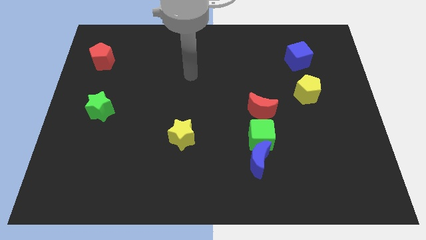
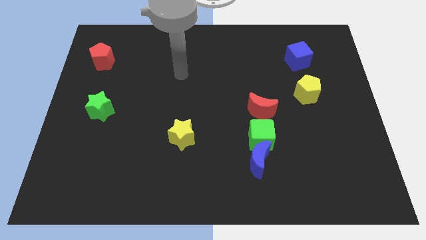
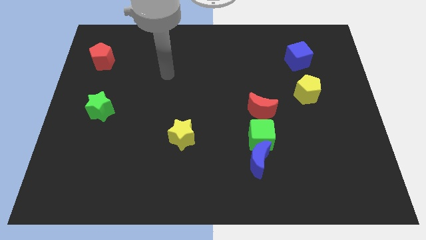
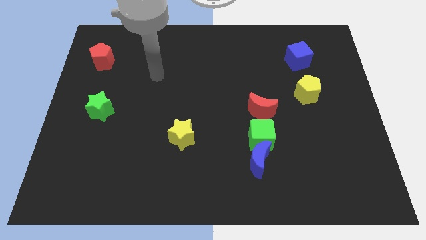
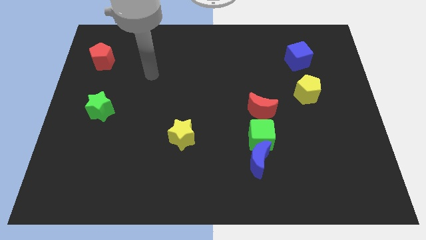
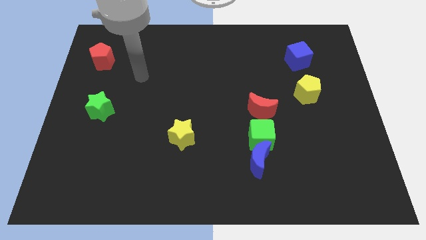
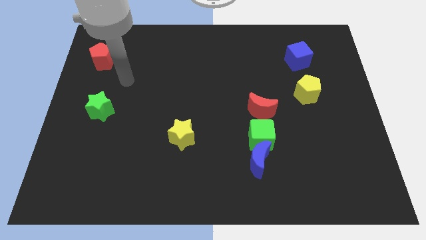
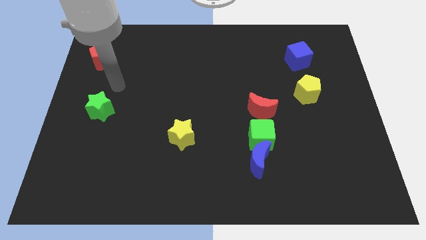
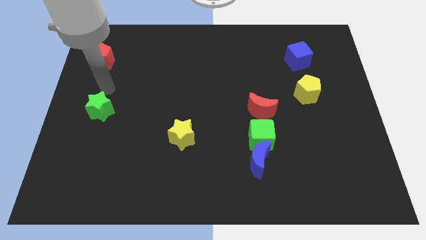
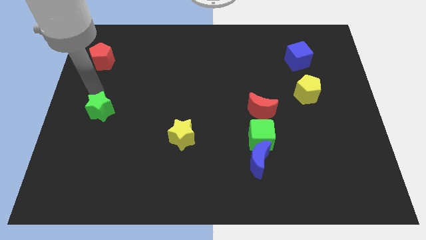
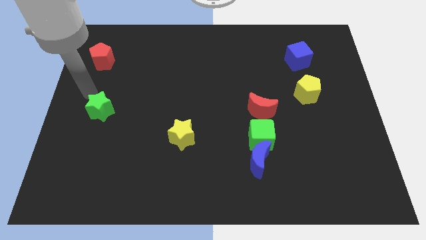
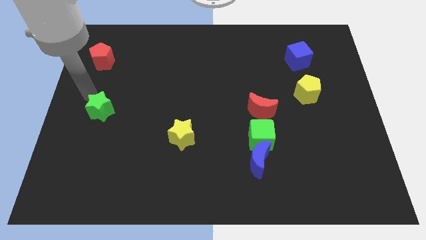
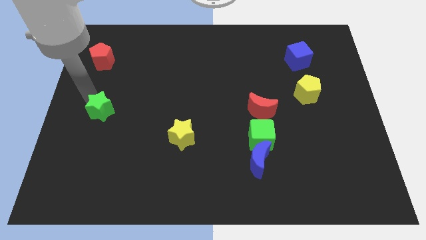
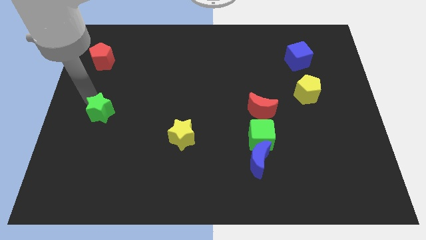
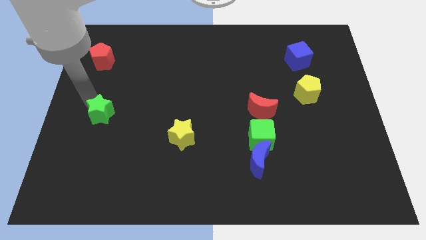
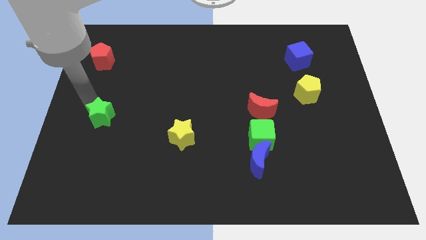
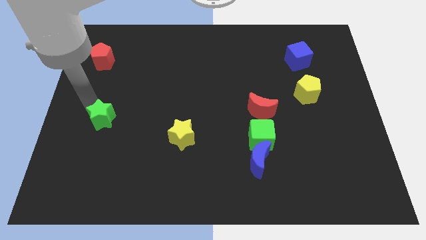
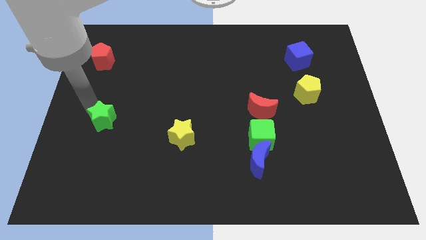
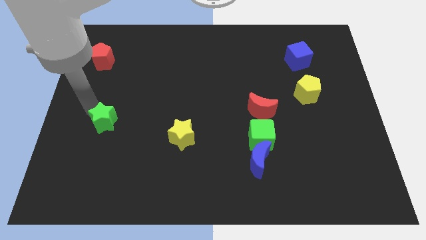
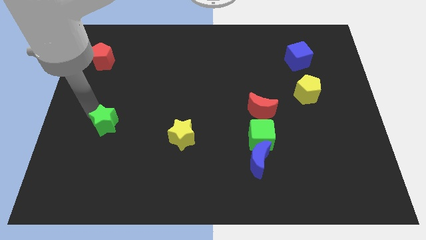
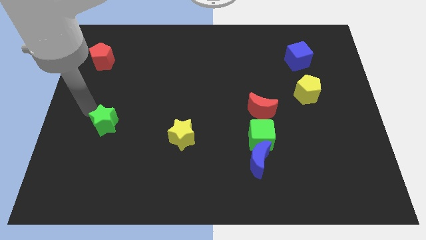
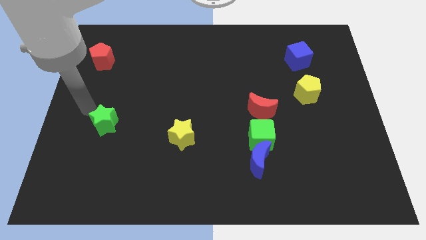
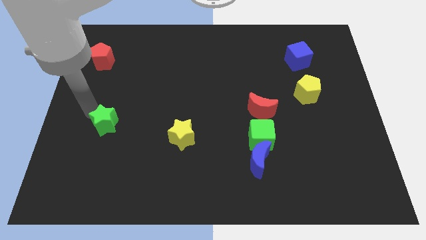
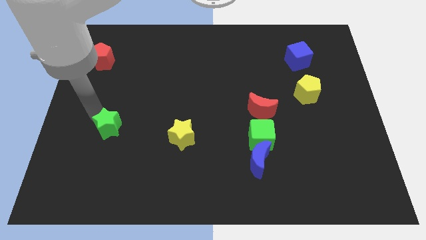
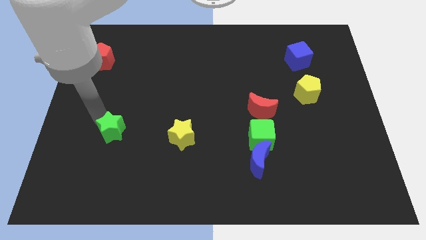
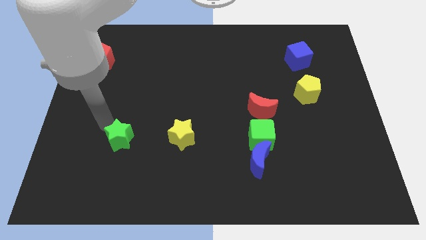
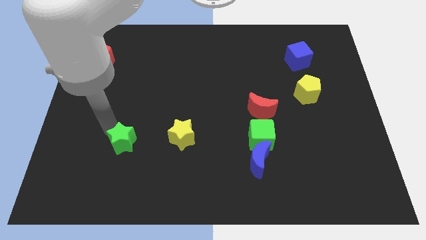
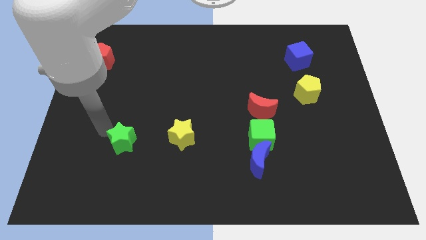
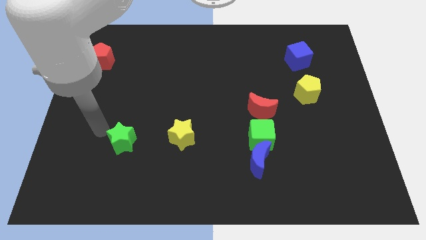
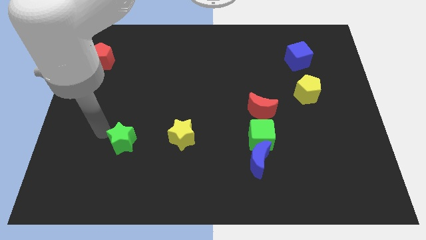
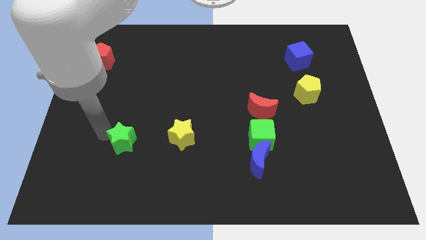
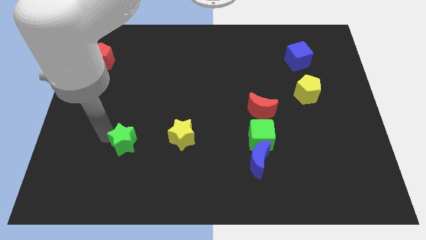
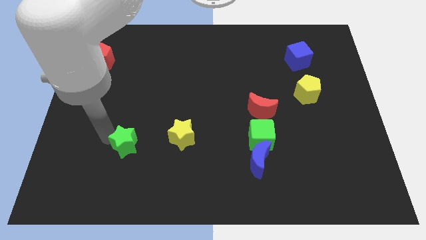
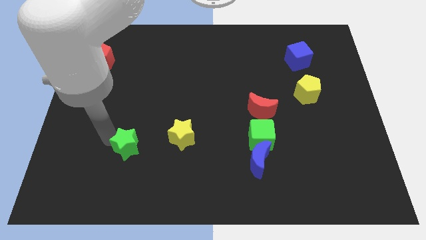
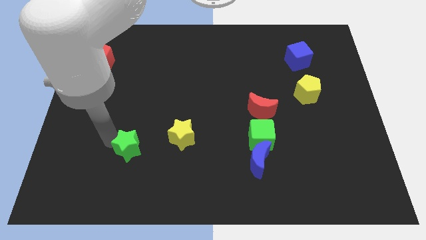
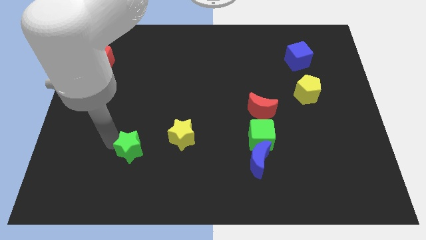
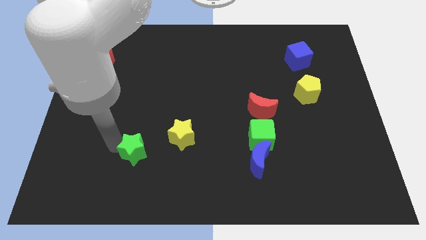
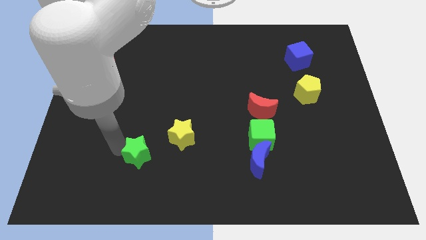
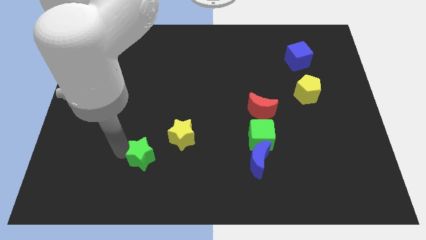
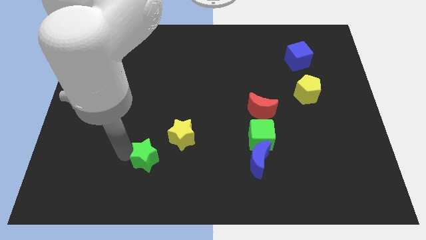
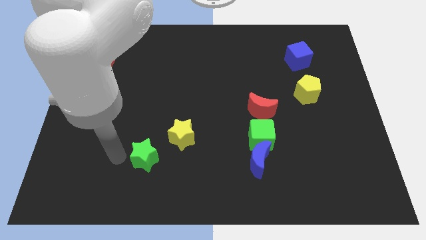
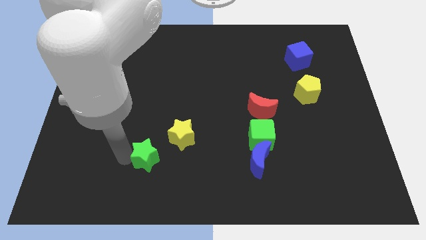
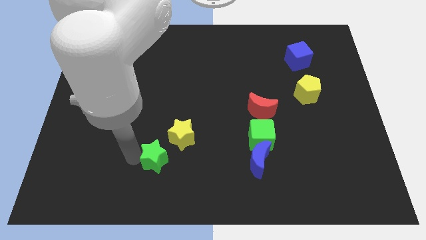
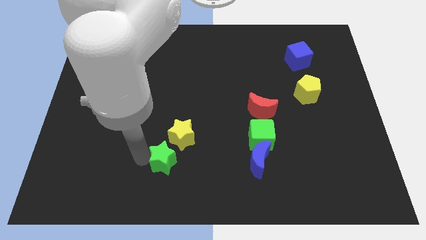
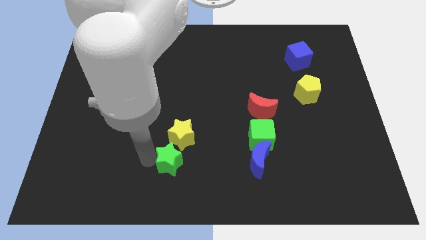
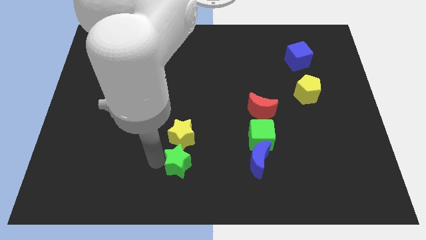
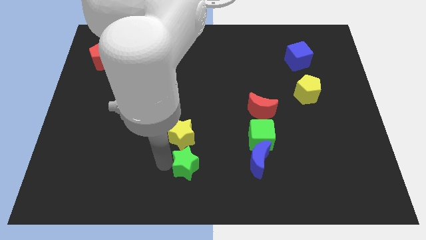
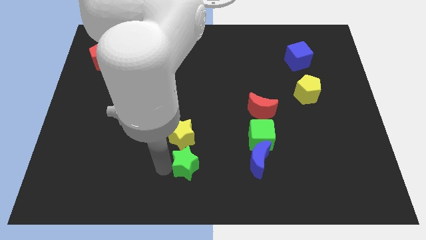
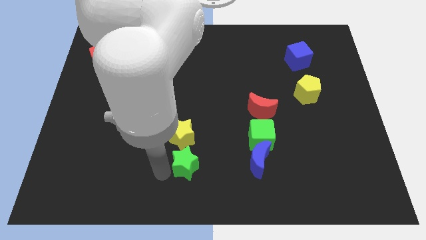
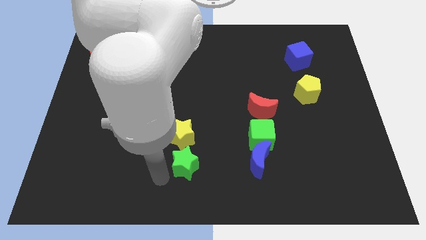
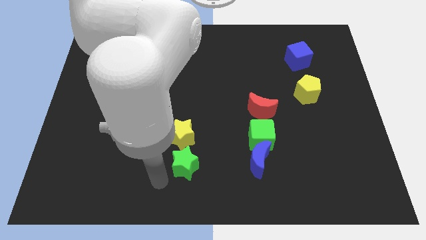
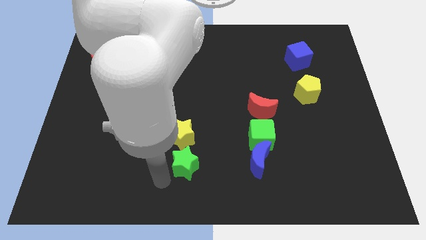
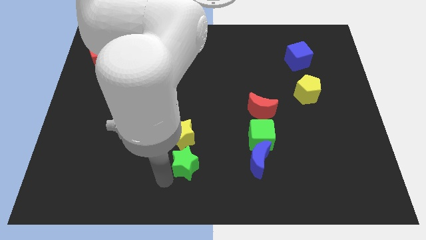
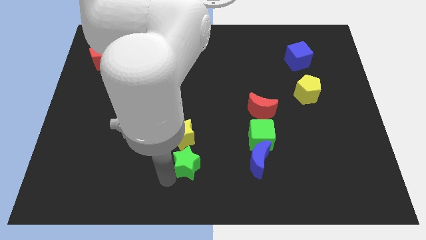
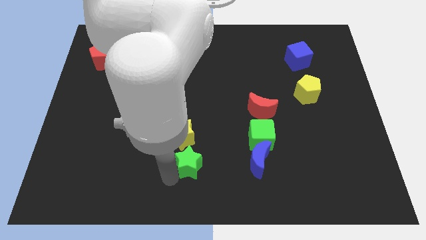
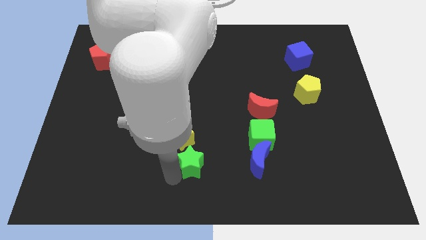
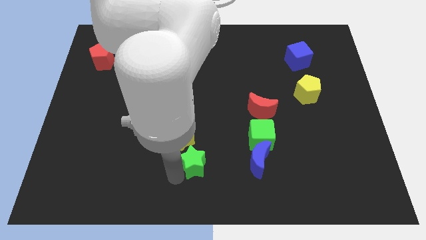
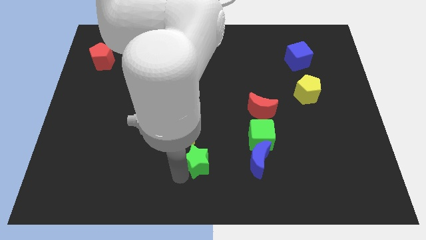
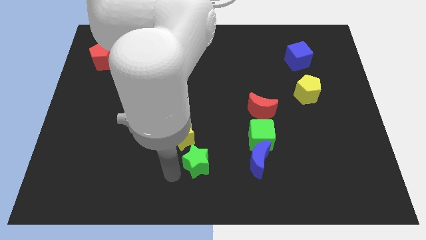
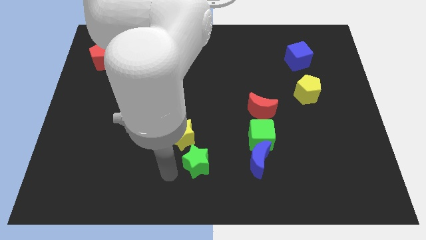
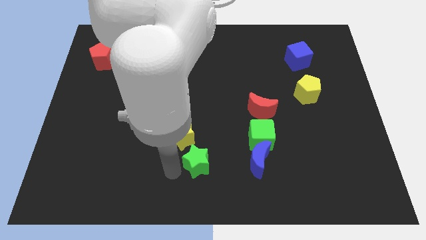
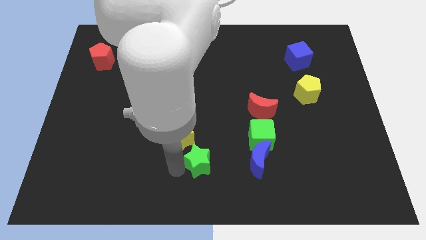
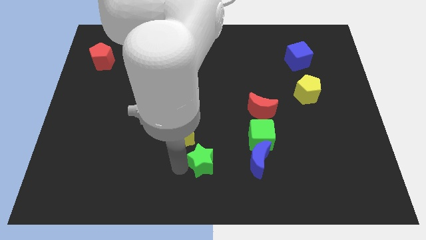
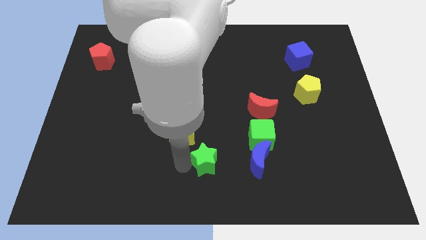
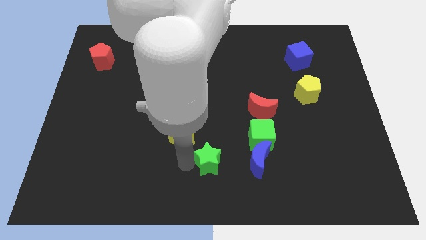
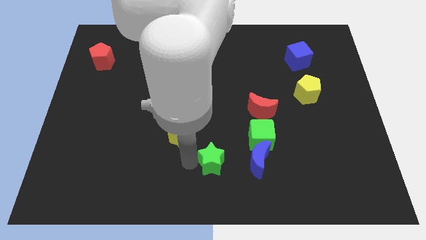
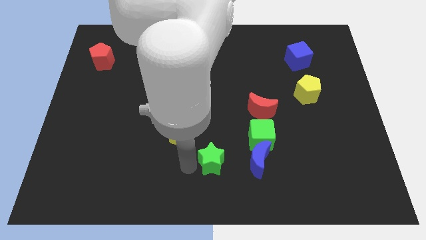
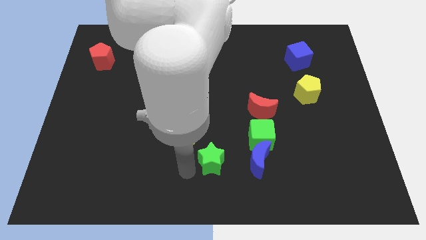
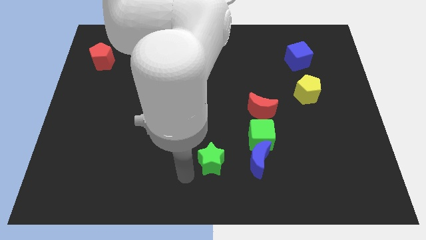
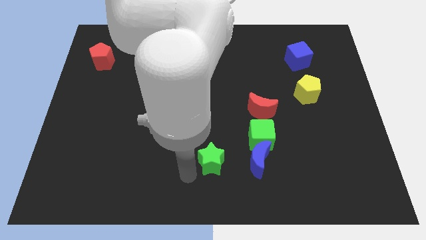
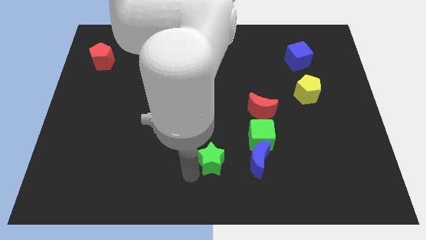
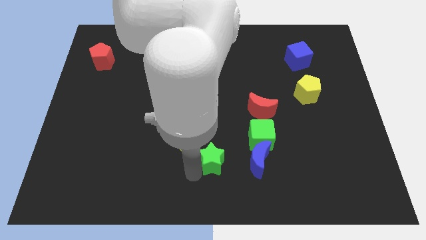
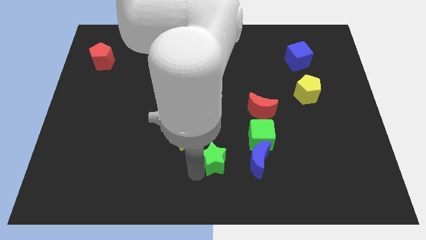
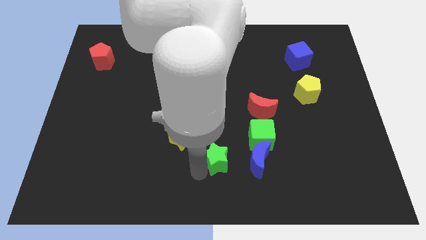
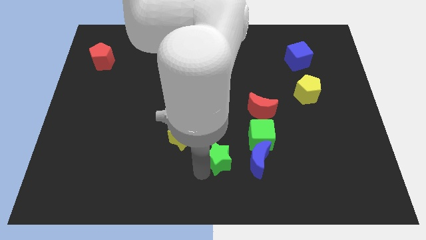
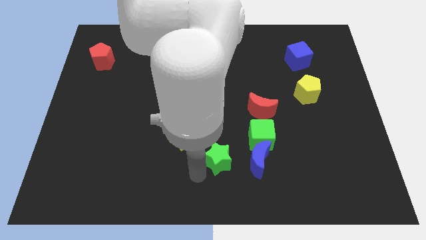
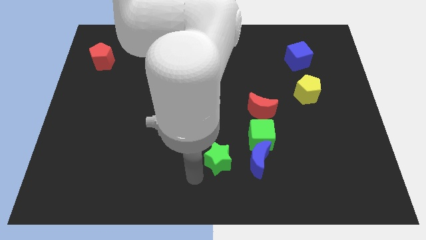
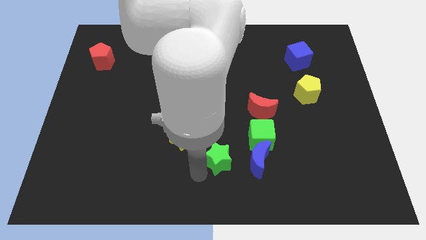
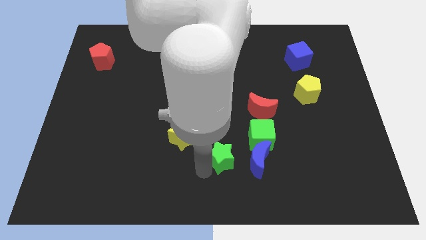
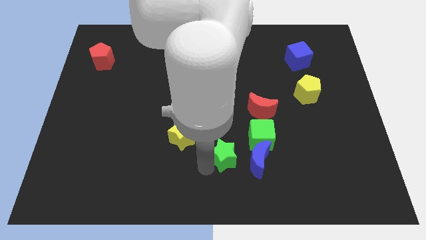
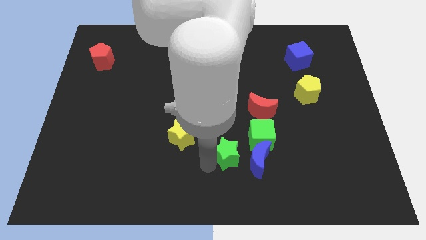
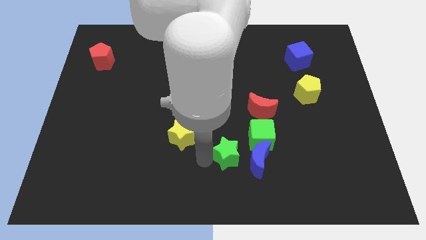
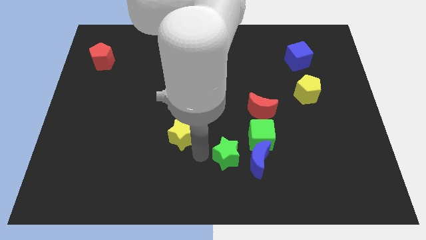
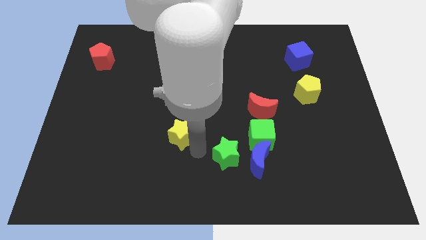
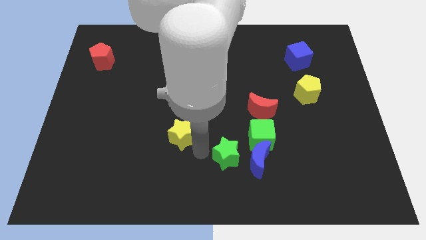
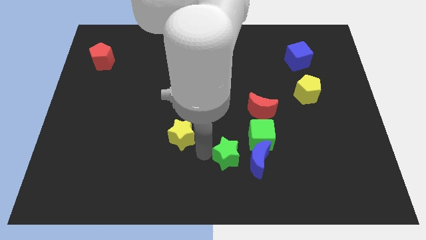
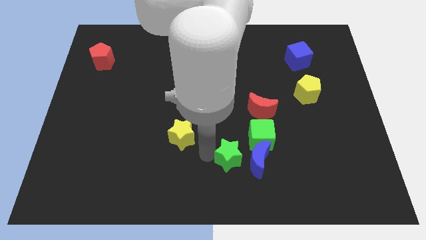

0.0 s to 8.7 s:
move the green star to the blue moon
